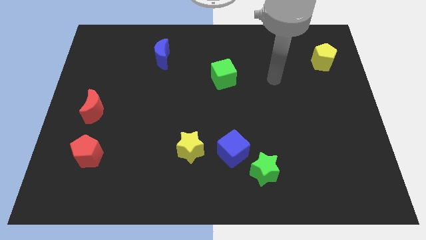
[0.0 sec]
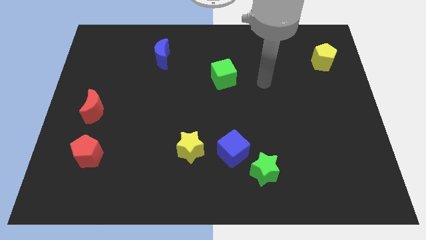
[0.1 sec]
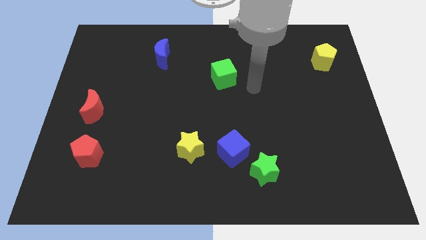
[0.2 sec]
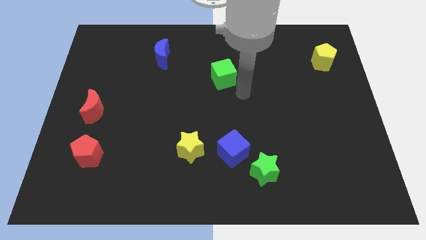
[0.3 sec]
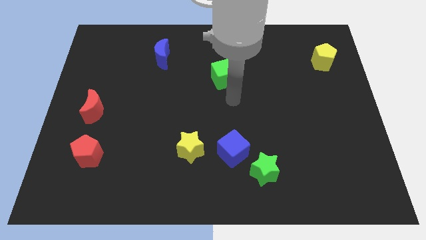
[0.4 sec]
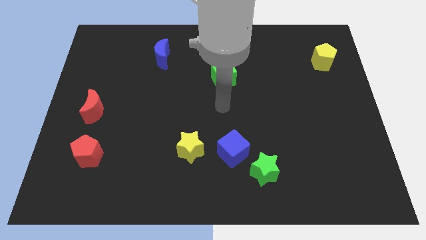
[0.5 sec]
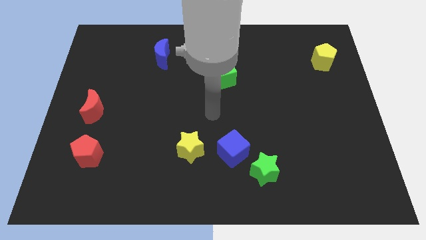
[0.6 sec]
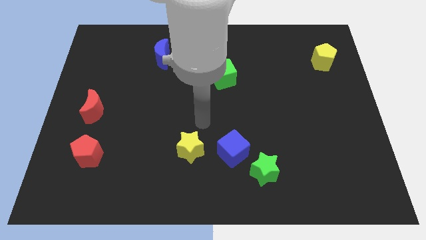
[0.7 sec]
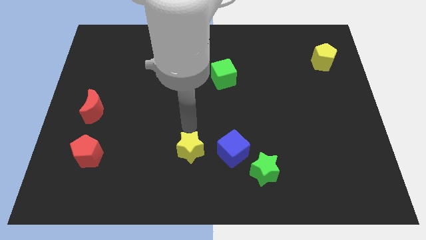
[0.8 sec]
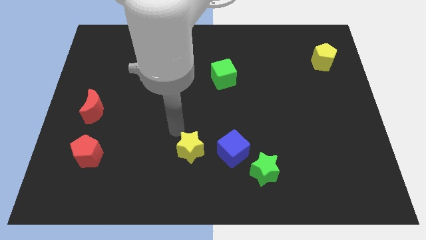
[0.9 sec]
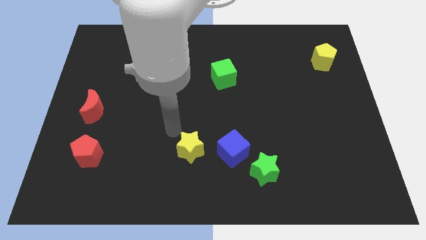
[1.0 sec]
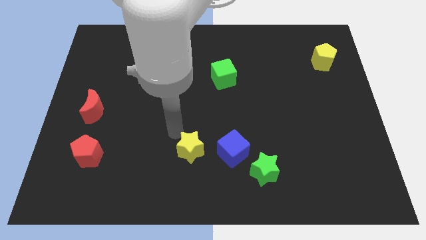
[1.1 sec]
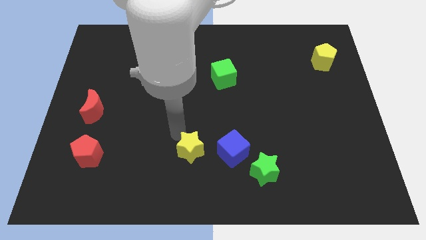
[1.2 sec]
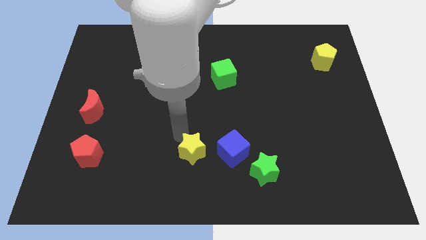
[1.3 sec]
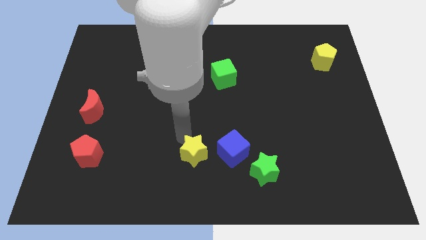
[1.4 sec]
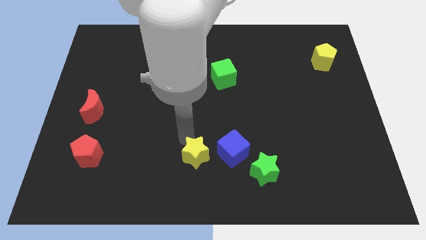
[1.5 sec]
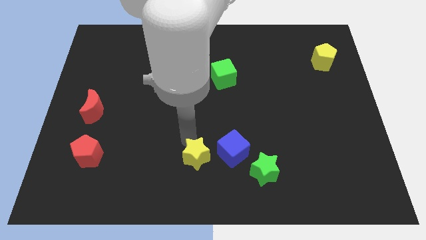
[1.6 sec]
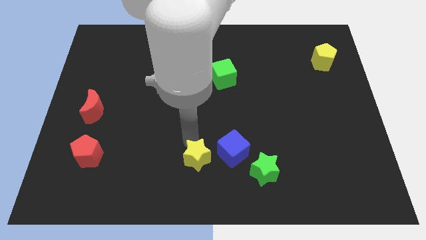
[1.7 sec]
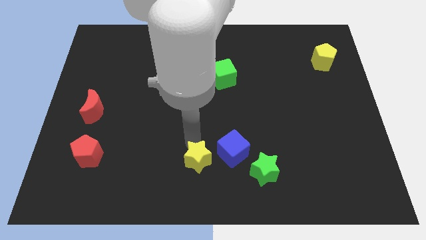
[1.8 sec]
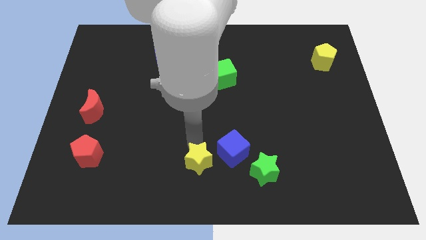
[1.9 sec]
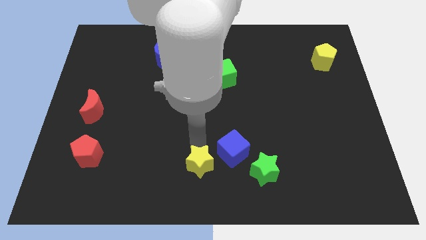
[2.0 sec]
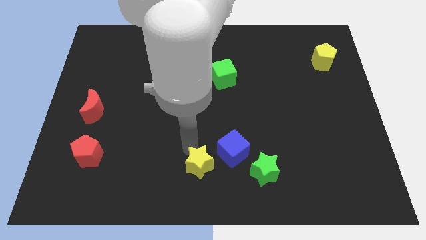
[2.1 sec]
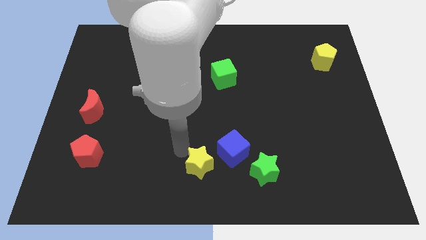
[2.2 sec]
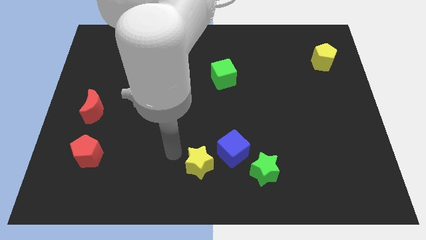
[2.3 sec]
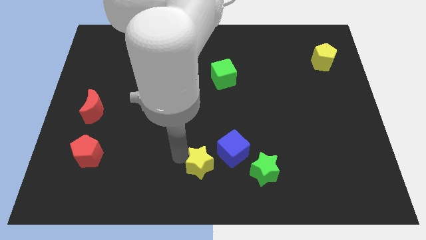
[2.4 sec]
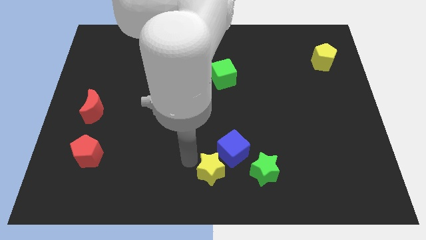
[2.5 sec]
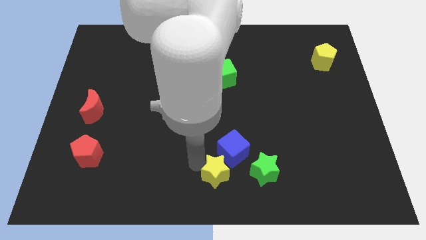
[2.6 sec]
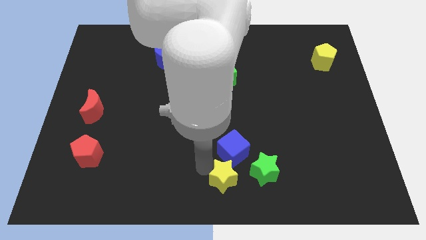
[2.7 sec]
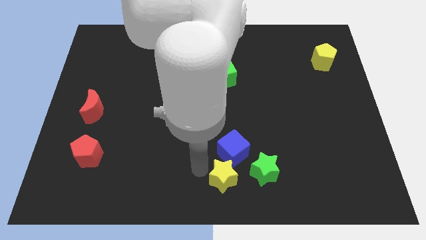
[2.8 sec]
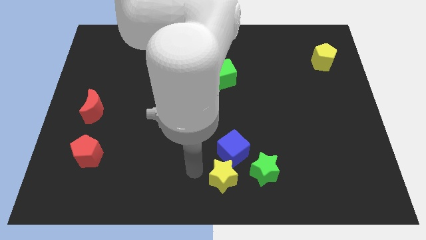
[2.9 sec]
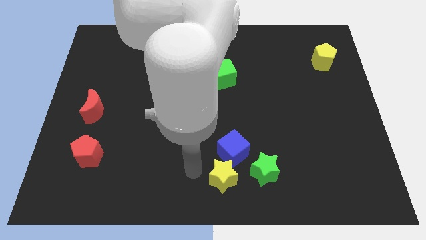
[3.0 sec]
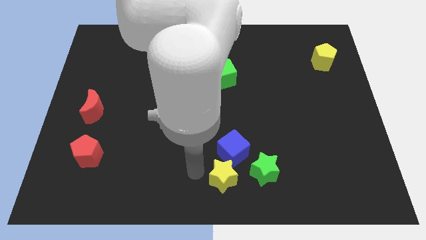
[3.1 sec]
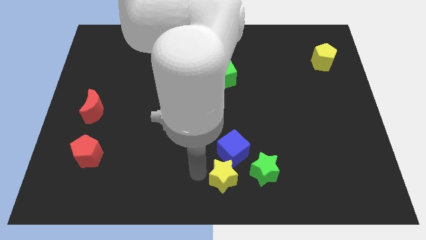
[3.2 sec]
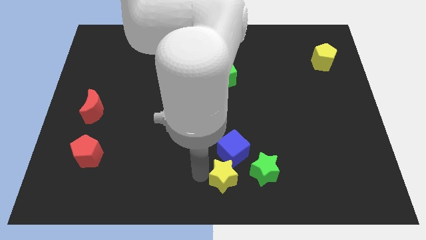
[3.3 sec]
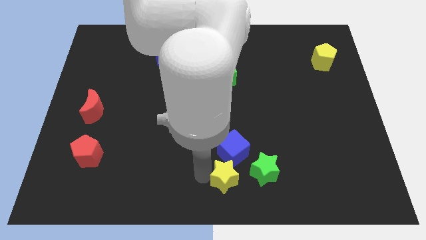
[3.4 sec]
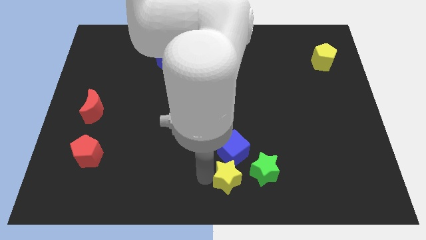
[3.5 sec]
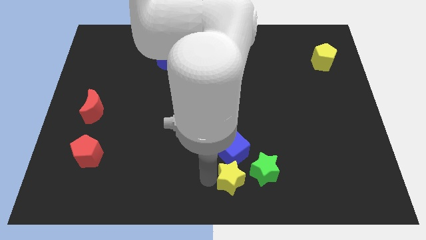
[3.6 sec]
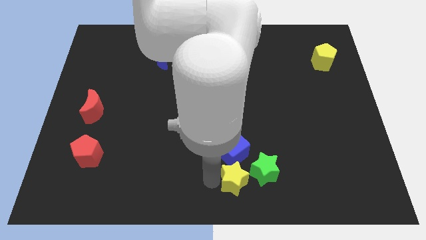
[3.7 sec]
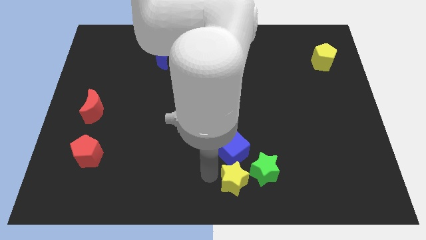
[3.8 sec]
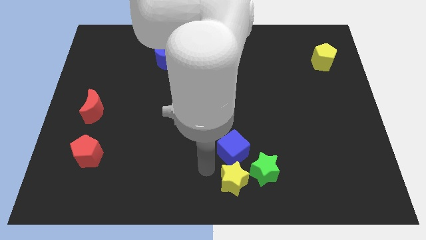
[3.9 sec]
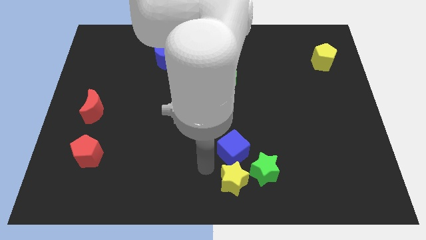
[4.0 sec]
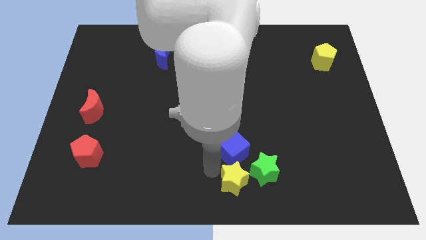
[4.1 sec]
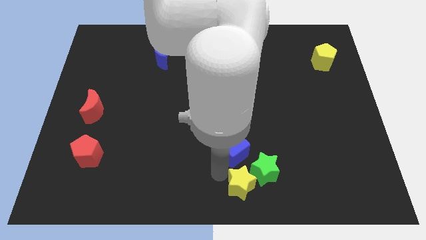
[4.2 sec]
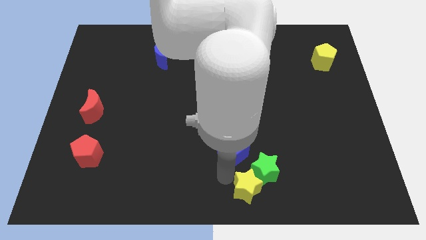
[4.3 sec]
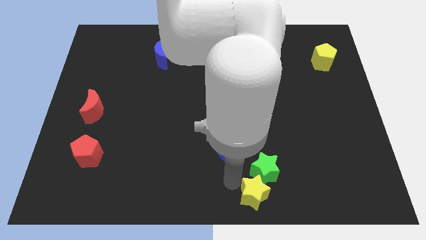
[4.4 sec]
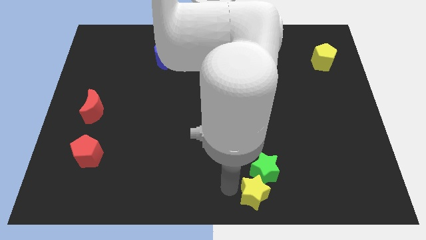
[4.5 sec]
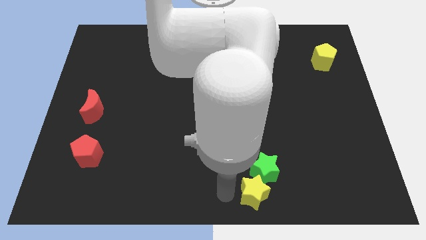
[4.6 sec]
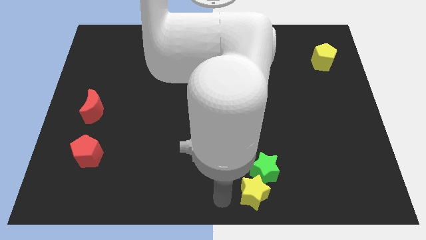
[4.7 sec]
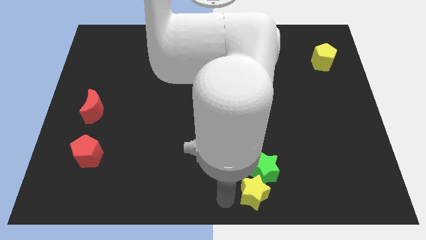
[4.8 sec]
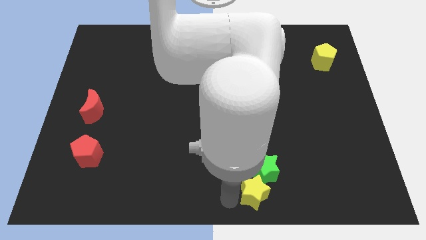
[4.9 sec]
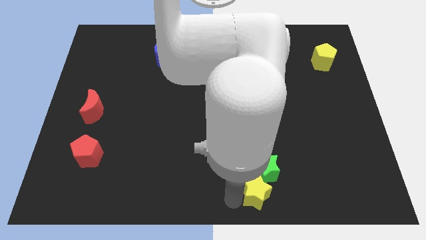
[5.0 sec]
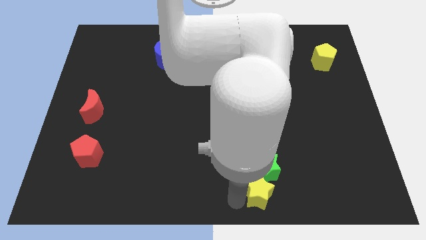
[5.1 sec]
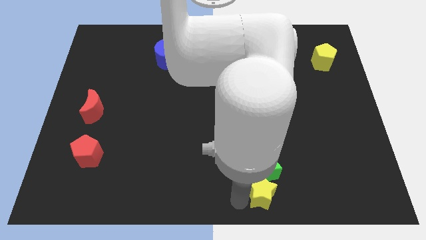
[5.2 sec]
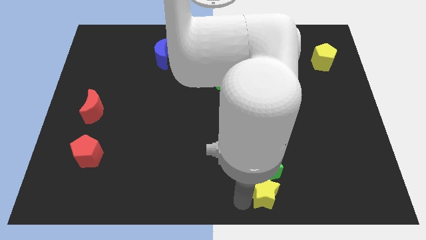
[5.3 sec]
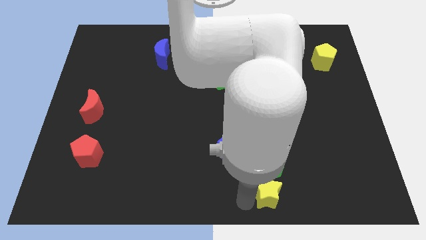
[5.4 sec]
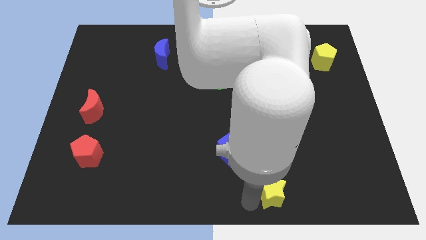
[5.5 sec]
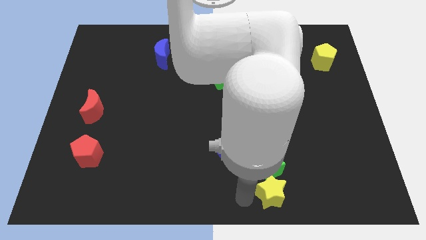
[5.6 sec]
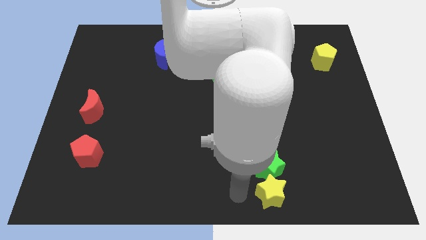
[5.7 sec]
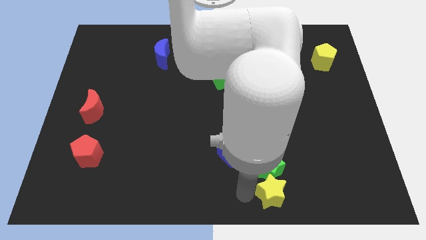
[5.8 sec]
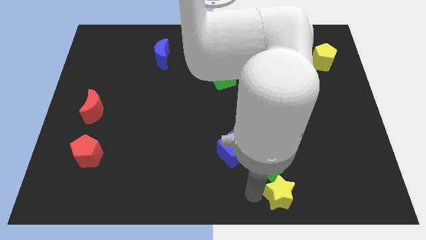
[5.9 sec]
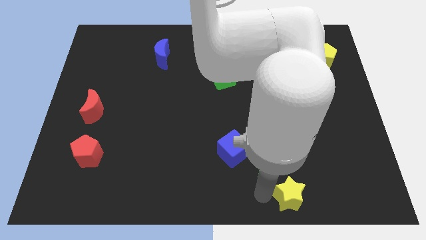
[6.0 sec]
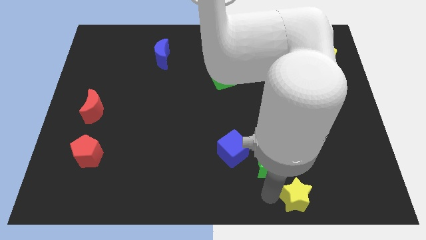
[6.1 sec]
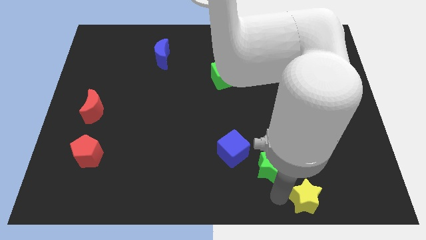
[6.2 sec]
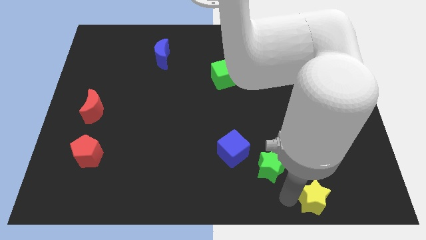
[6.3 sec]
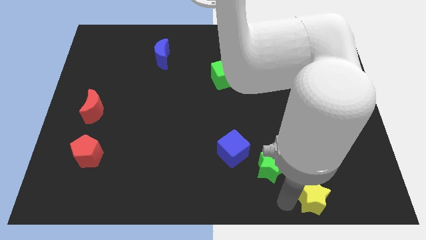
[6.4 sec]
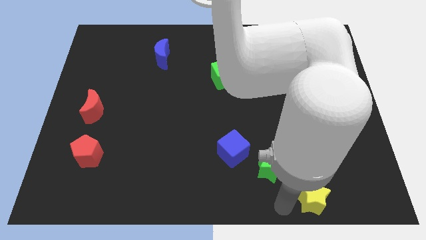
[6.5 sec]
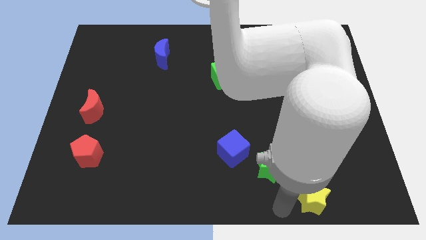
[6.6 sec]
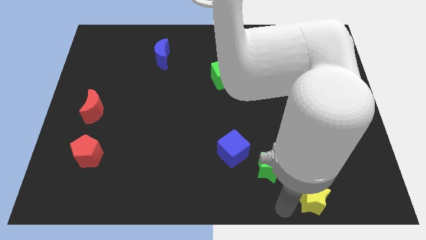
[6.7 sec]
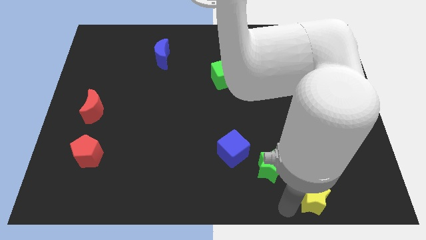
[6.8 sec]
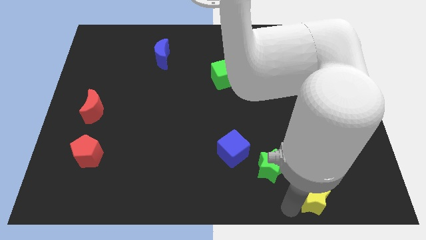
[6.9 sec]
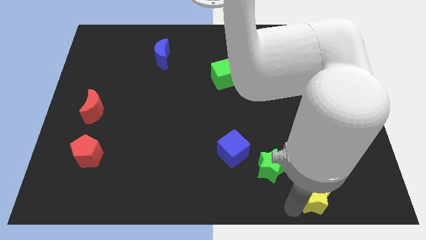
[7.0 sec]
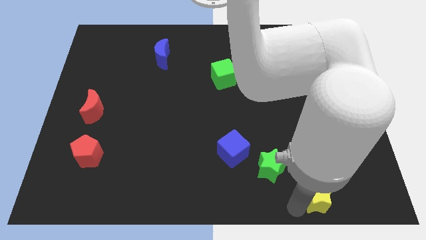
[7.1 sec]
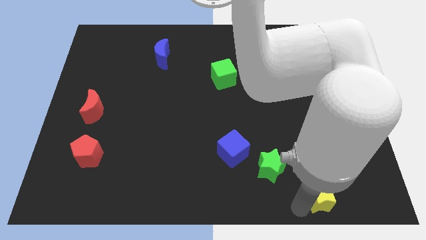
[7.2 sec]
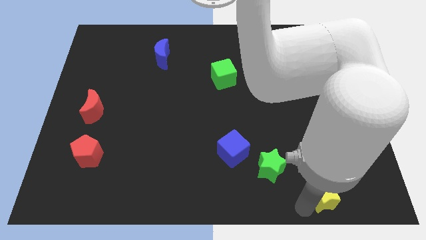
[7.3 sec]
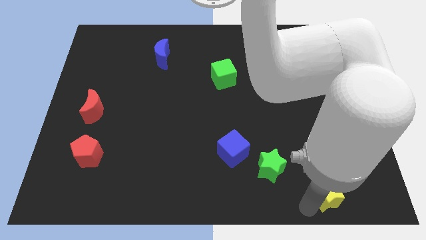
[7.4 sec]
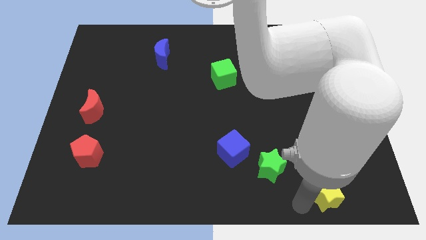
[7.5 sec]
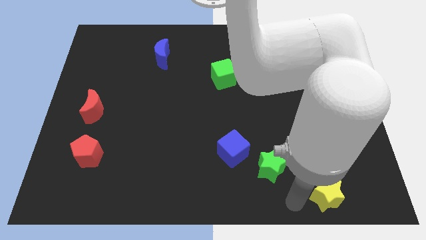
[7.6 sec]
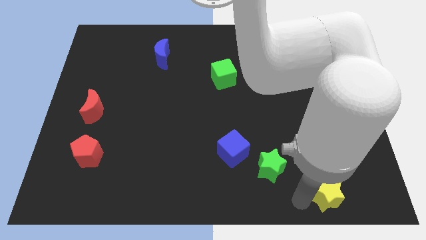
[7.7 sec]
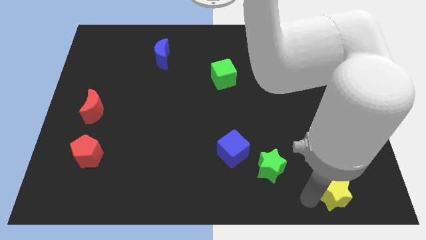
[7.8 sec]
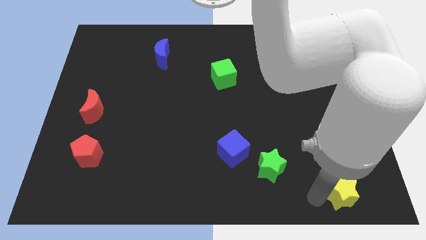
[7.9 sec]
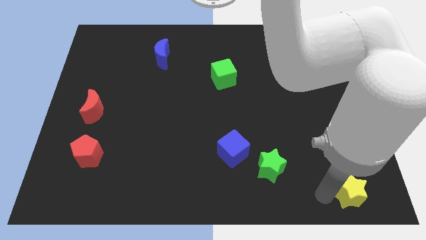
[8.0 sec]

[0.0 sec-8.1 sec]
move the yellow star to the bottom right
